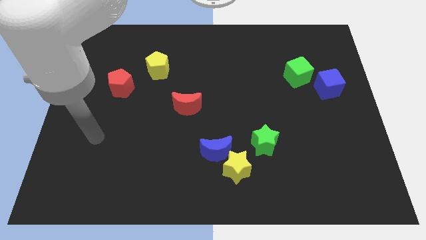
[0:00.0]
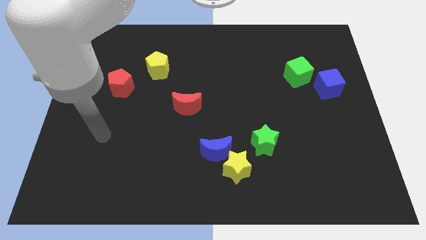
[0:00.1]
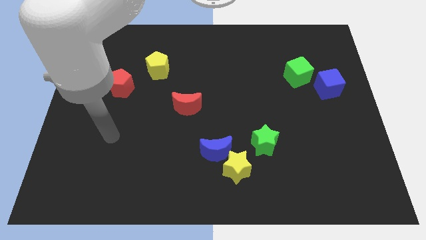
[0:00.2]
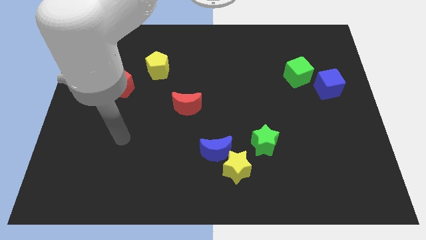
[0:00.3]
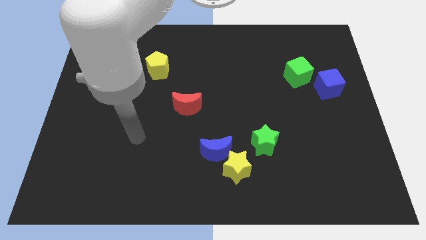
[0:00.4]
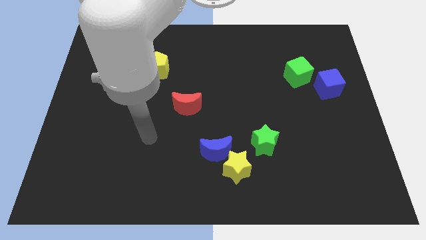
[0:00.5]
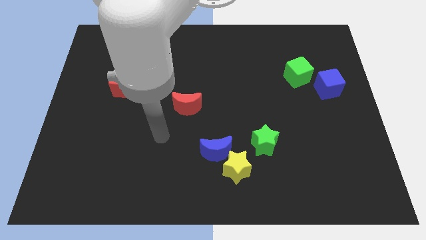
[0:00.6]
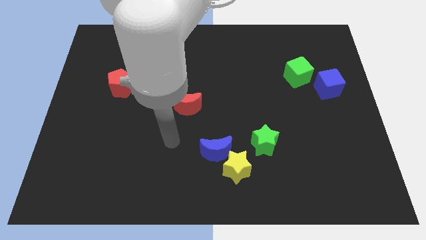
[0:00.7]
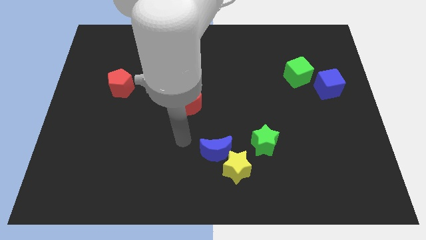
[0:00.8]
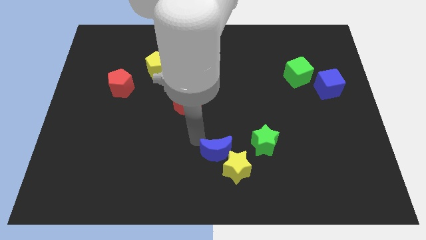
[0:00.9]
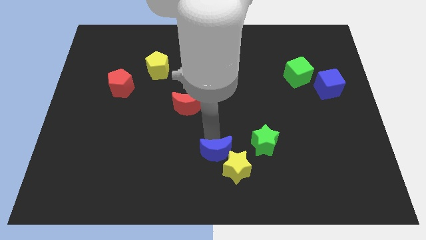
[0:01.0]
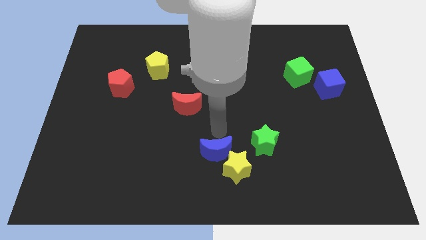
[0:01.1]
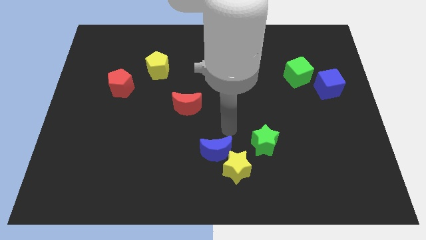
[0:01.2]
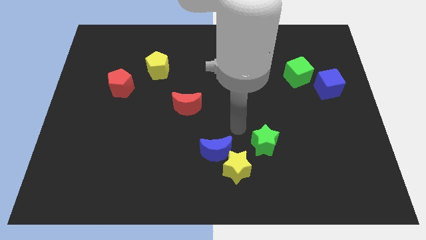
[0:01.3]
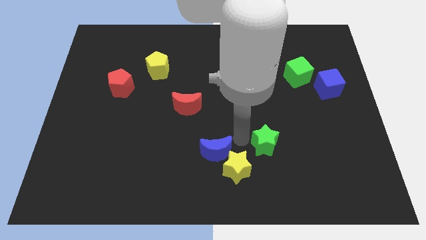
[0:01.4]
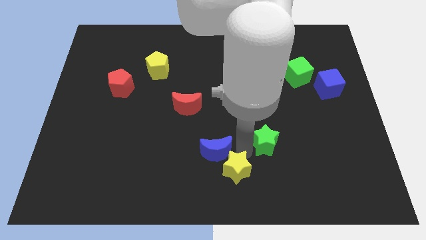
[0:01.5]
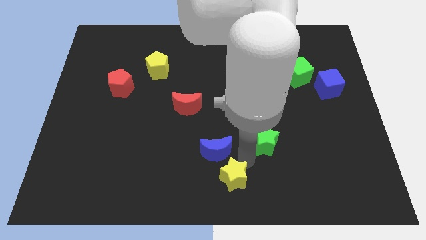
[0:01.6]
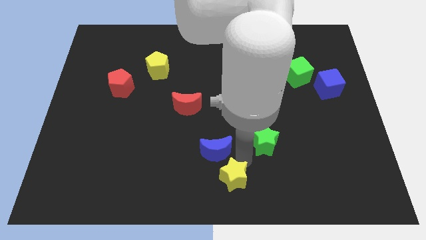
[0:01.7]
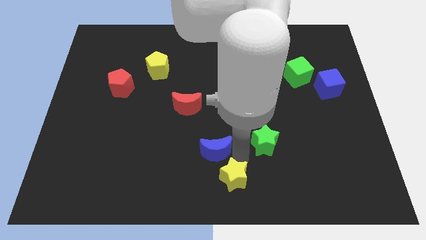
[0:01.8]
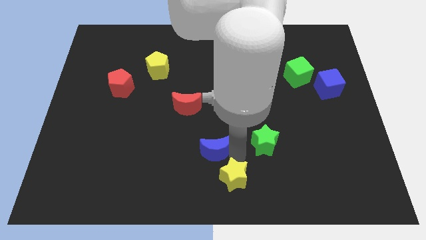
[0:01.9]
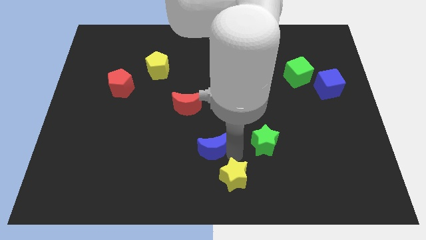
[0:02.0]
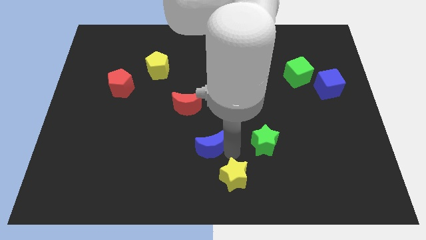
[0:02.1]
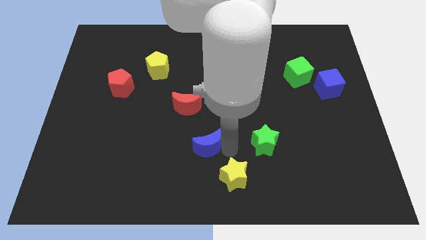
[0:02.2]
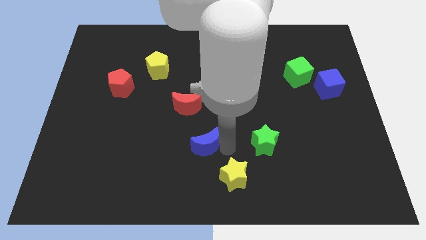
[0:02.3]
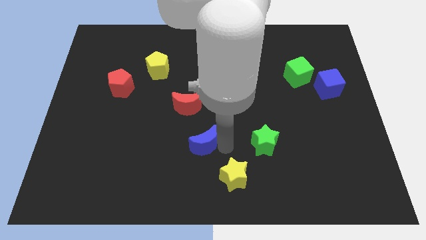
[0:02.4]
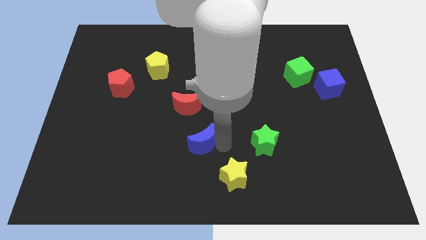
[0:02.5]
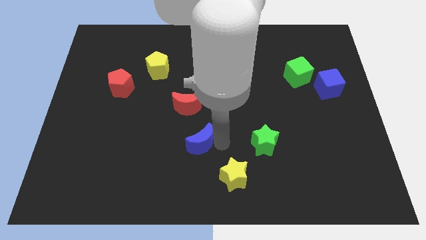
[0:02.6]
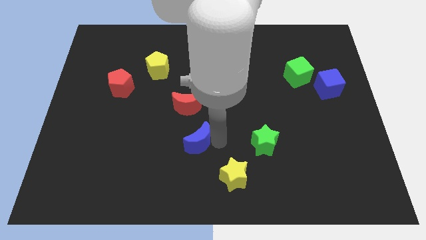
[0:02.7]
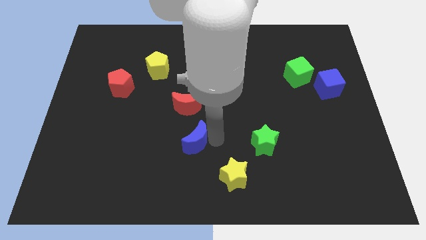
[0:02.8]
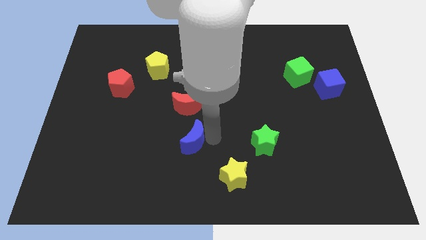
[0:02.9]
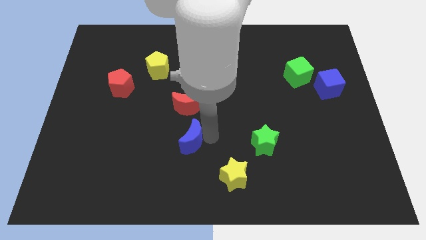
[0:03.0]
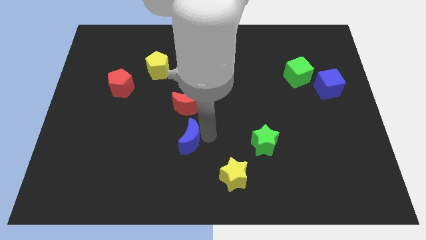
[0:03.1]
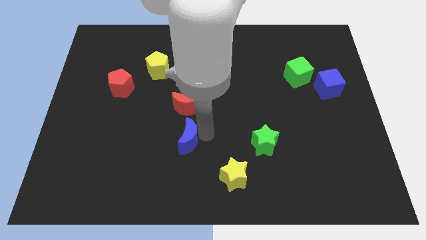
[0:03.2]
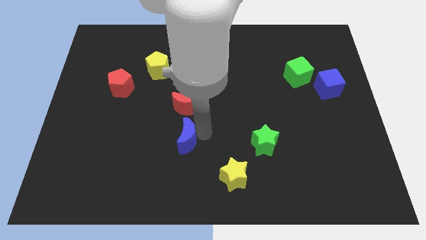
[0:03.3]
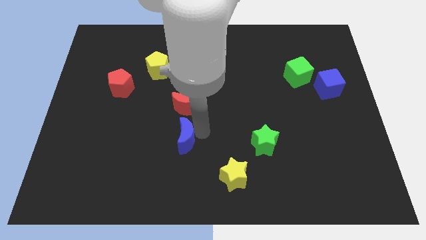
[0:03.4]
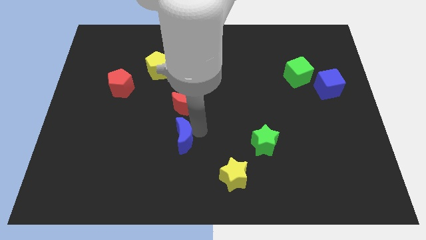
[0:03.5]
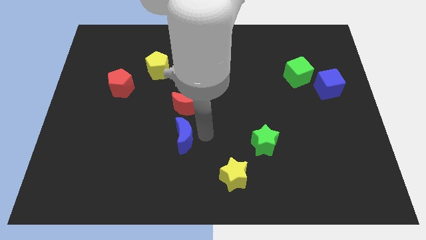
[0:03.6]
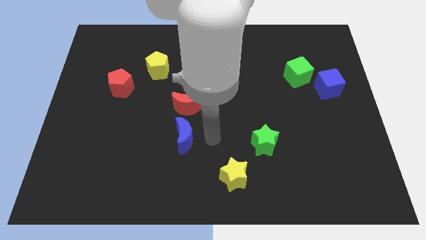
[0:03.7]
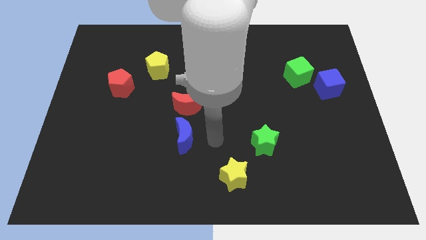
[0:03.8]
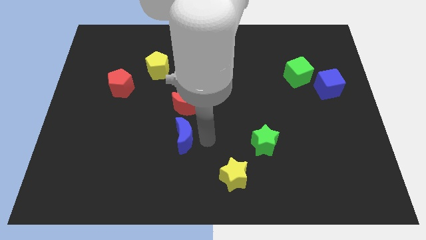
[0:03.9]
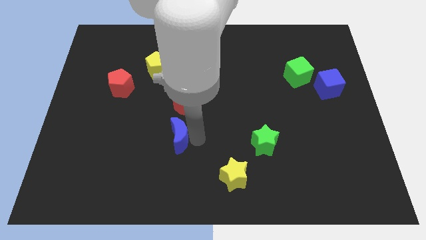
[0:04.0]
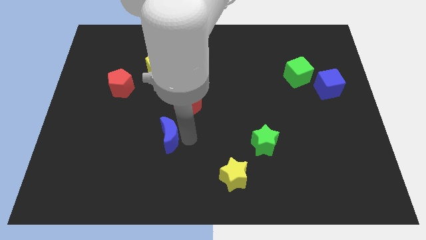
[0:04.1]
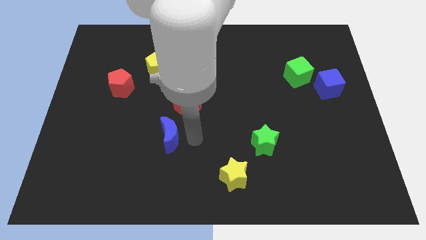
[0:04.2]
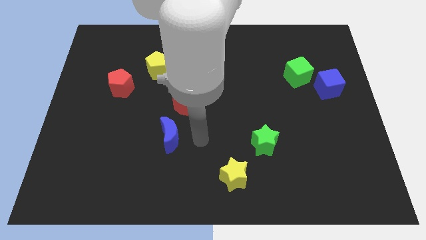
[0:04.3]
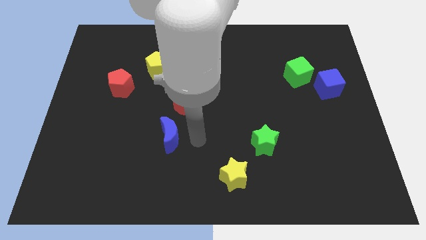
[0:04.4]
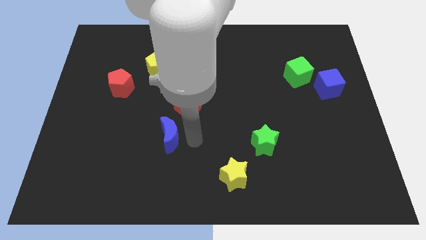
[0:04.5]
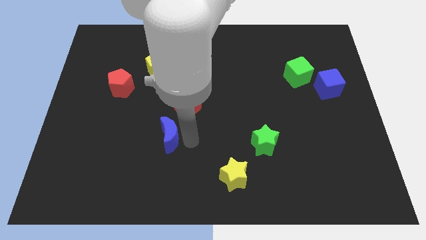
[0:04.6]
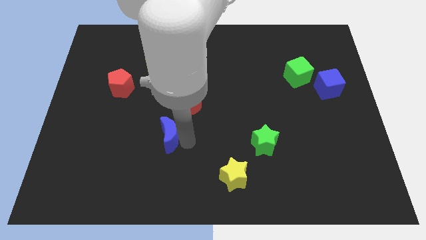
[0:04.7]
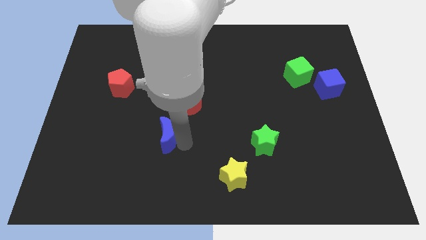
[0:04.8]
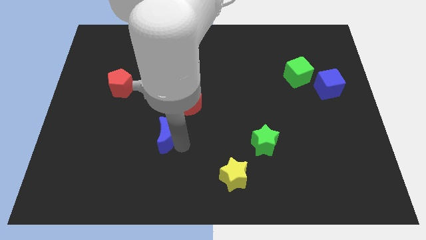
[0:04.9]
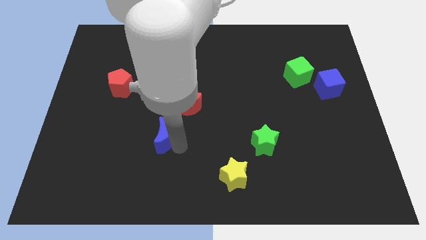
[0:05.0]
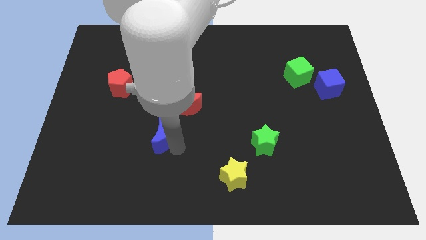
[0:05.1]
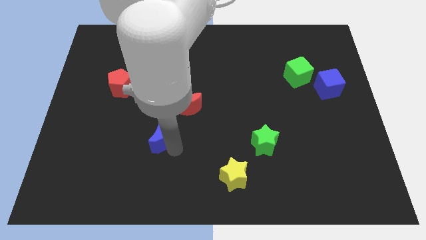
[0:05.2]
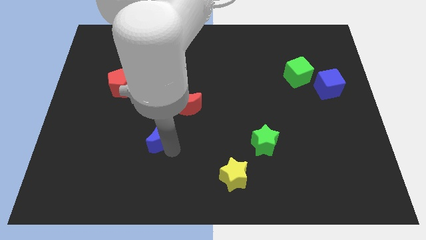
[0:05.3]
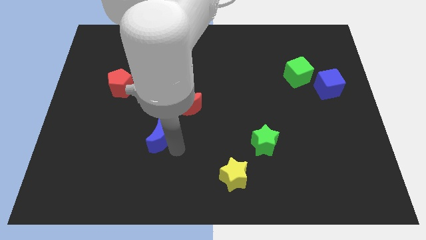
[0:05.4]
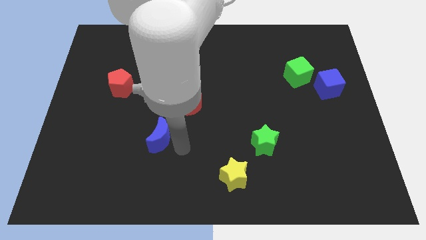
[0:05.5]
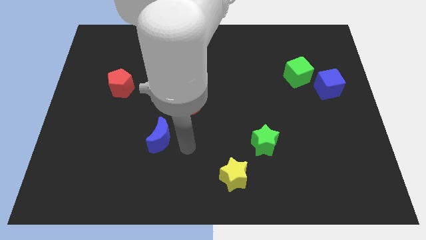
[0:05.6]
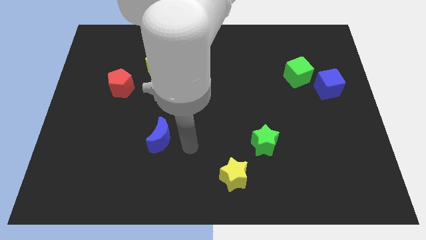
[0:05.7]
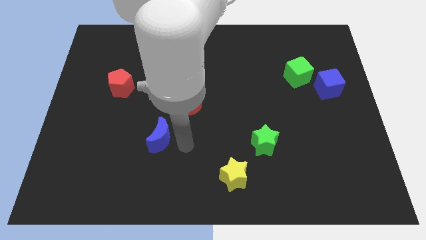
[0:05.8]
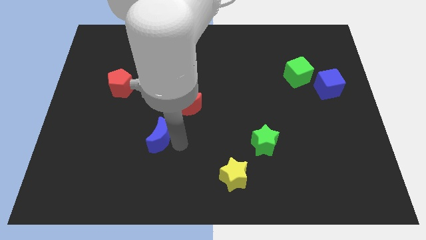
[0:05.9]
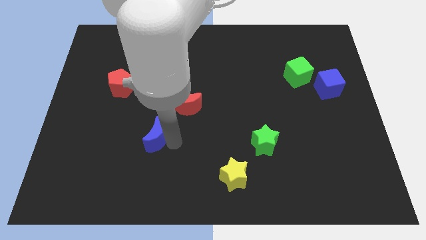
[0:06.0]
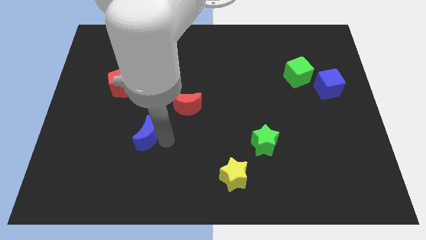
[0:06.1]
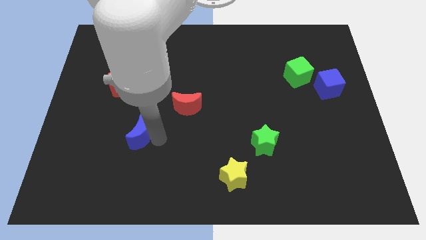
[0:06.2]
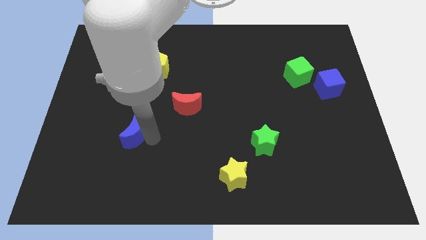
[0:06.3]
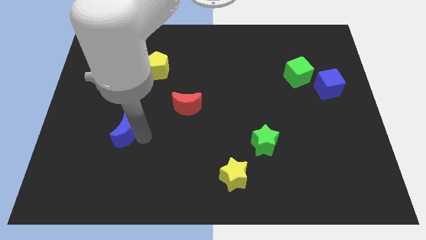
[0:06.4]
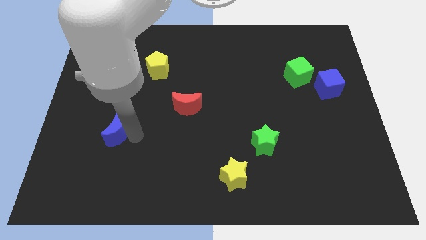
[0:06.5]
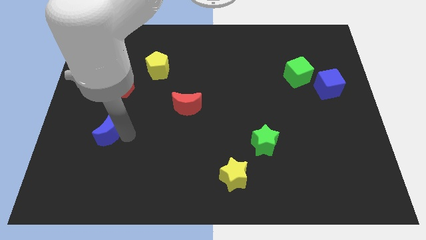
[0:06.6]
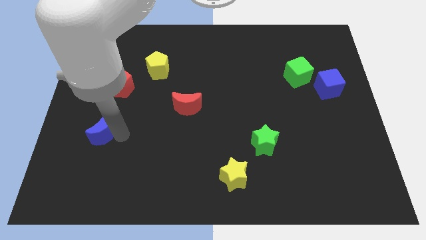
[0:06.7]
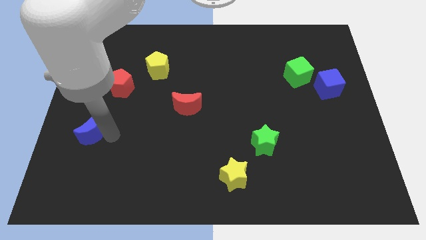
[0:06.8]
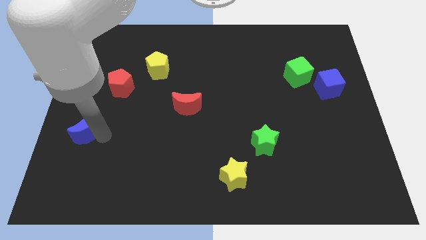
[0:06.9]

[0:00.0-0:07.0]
push the blue moon to the center left
